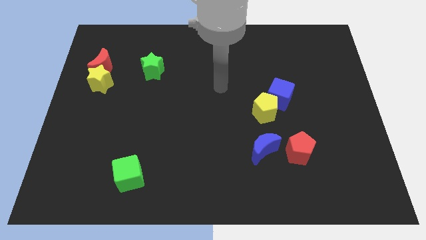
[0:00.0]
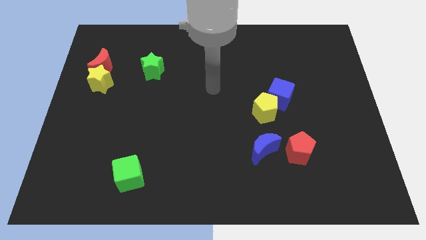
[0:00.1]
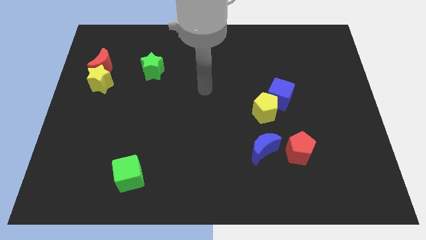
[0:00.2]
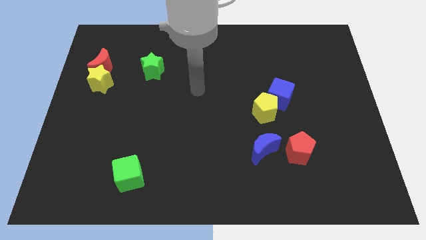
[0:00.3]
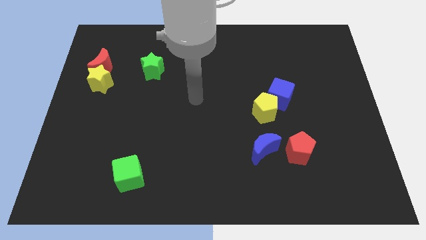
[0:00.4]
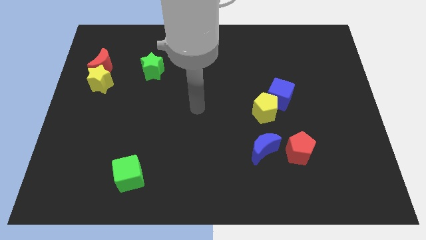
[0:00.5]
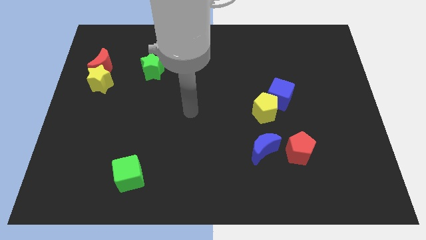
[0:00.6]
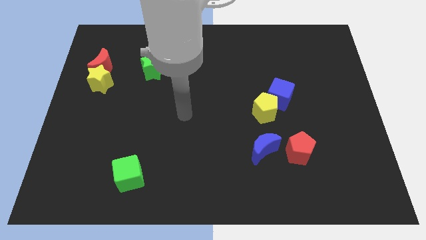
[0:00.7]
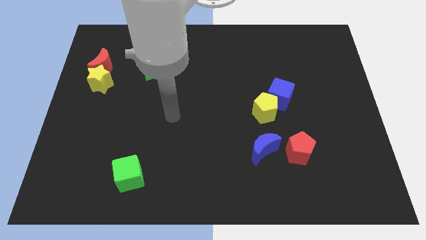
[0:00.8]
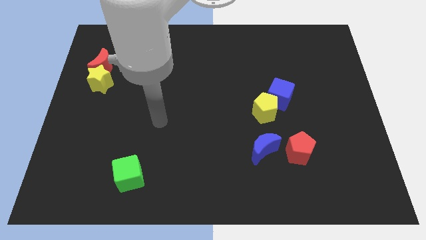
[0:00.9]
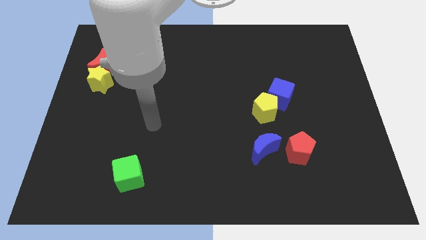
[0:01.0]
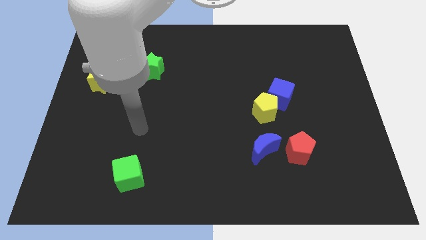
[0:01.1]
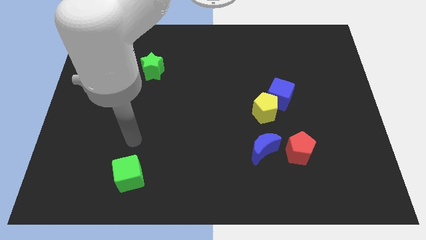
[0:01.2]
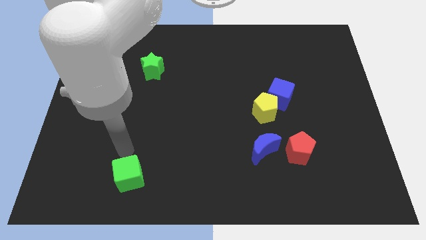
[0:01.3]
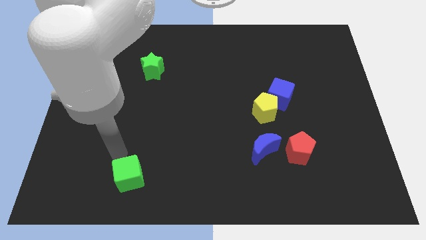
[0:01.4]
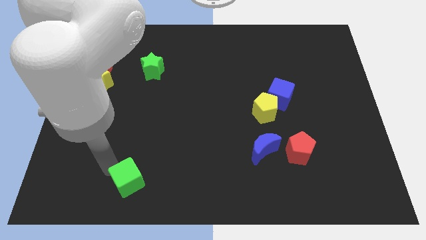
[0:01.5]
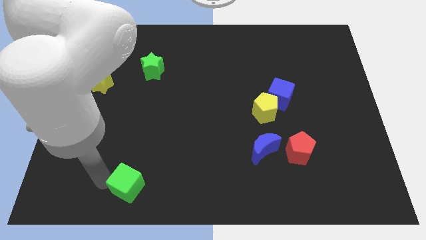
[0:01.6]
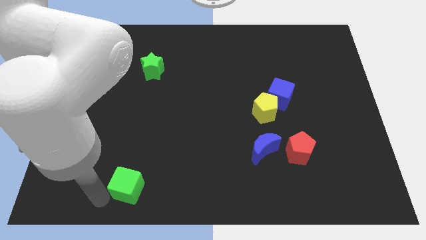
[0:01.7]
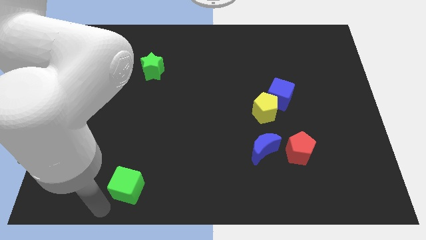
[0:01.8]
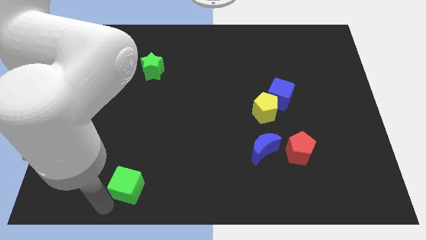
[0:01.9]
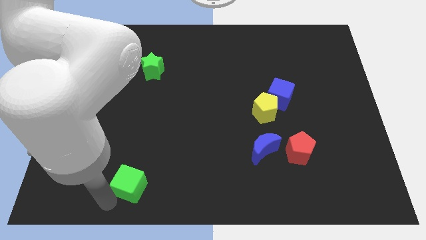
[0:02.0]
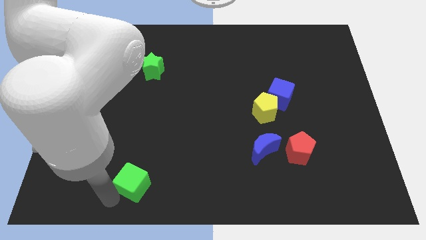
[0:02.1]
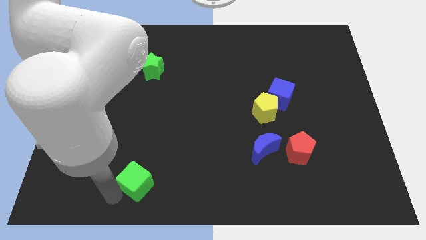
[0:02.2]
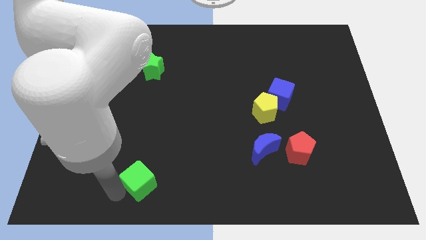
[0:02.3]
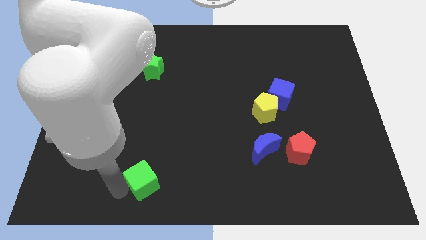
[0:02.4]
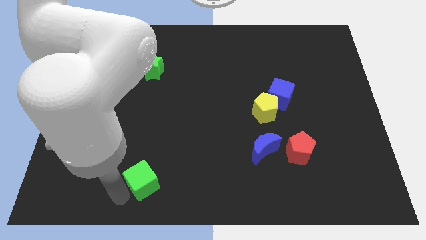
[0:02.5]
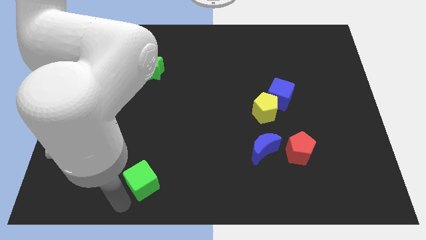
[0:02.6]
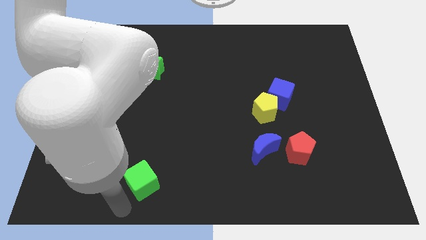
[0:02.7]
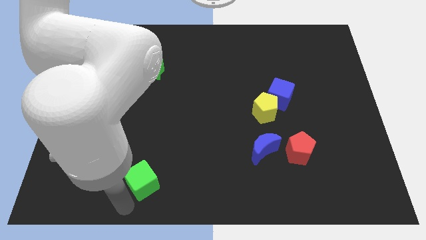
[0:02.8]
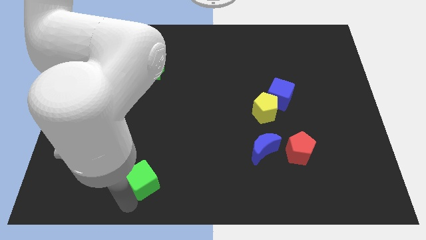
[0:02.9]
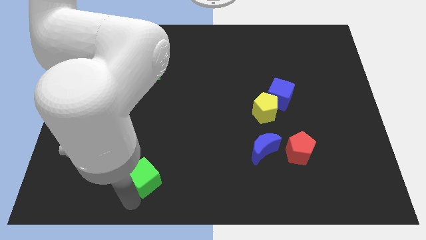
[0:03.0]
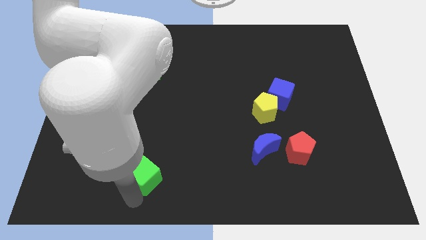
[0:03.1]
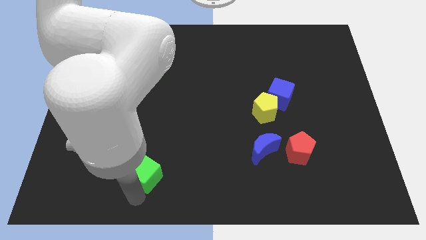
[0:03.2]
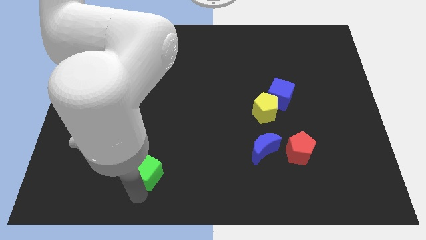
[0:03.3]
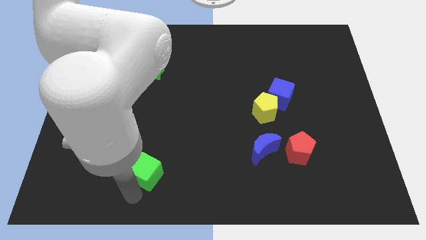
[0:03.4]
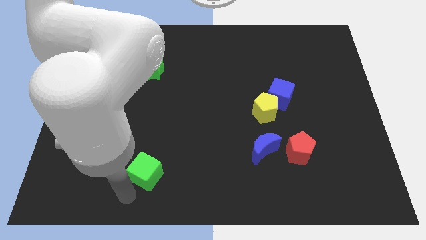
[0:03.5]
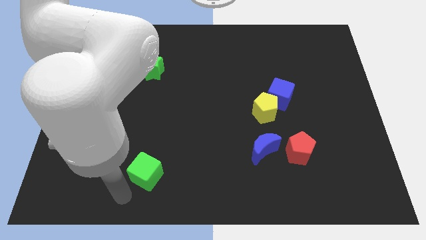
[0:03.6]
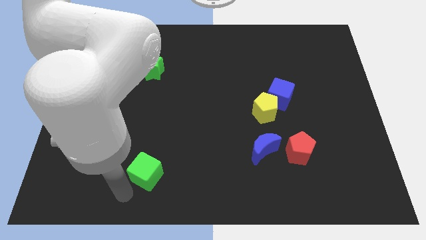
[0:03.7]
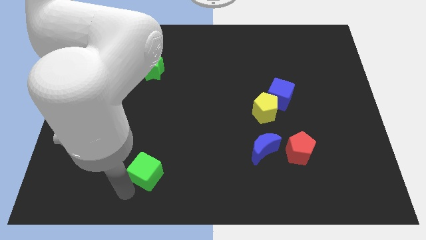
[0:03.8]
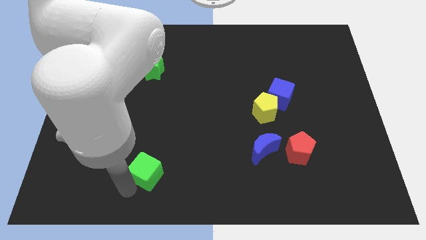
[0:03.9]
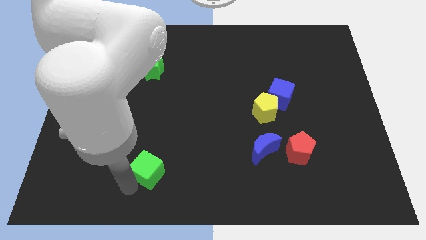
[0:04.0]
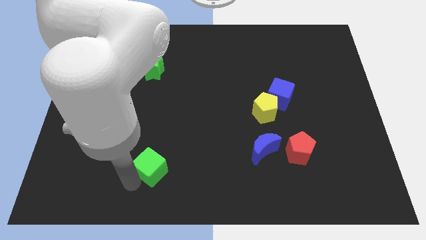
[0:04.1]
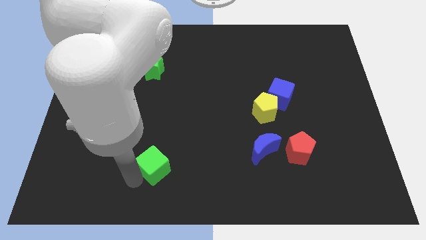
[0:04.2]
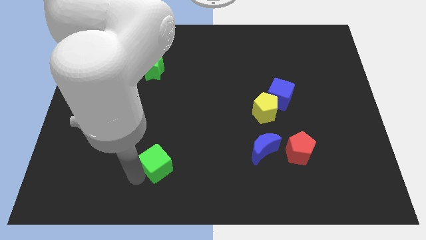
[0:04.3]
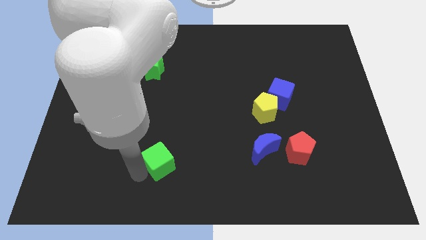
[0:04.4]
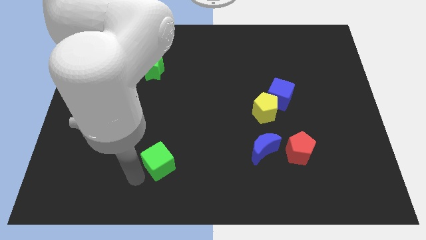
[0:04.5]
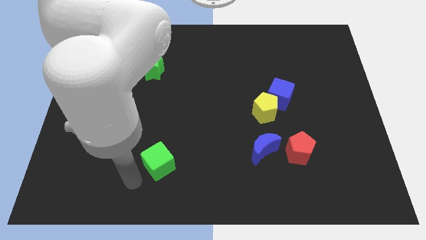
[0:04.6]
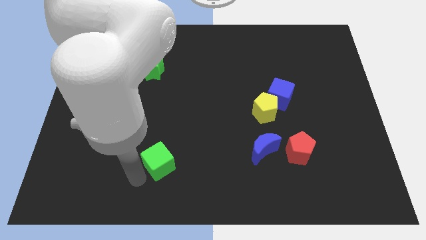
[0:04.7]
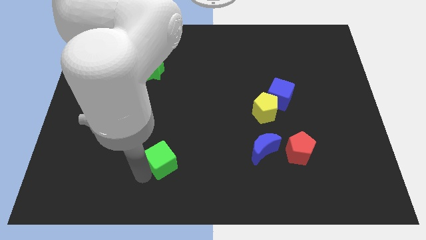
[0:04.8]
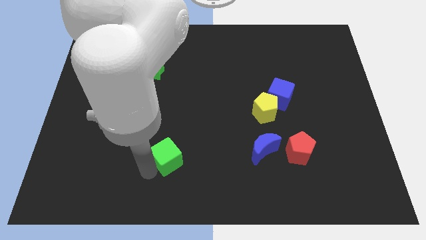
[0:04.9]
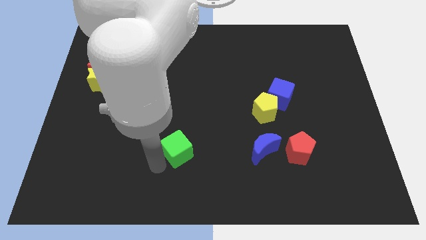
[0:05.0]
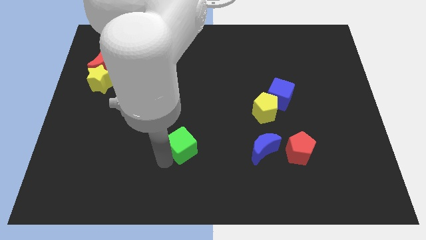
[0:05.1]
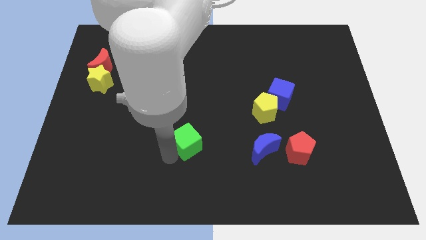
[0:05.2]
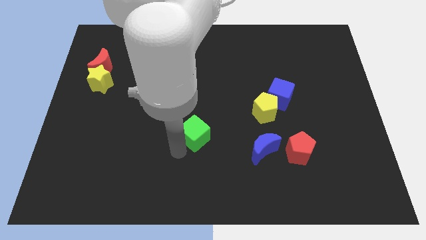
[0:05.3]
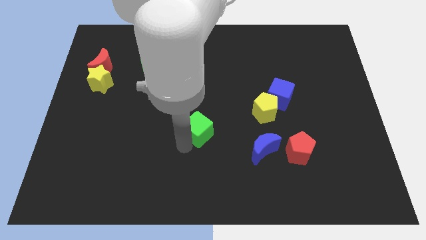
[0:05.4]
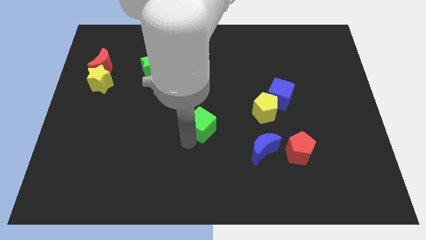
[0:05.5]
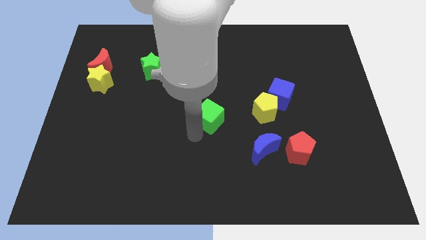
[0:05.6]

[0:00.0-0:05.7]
move the green cube upwards and then right

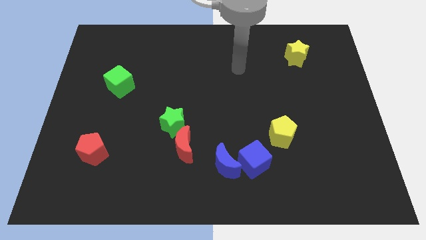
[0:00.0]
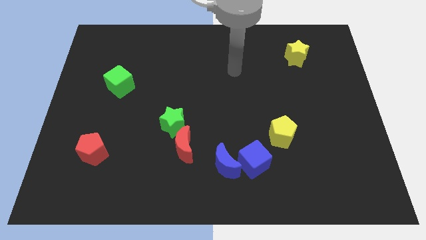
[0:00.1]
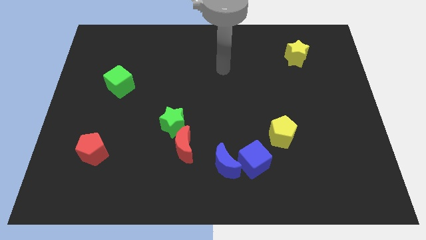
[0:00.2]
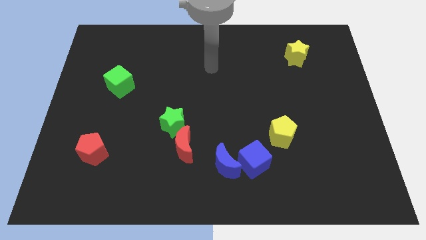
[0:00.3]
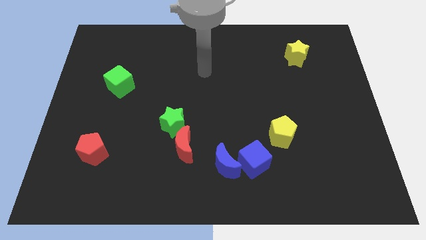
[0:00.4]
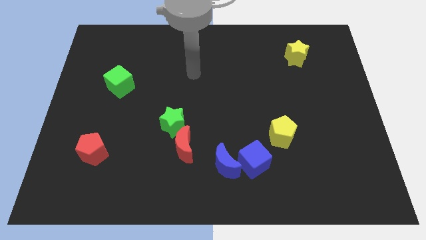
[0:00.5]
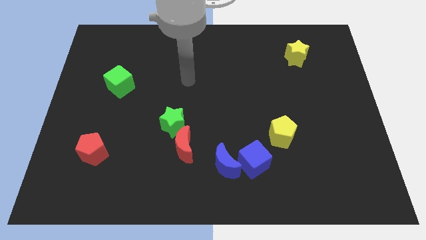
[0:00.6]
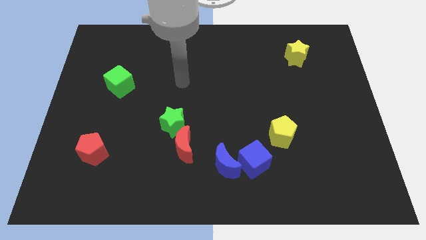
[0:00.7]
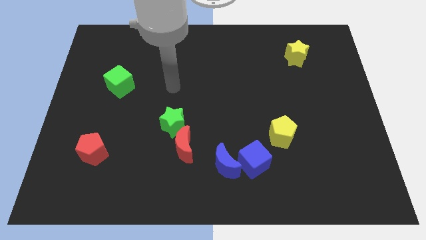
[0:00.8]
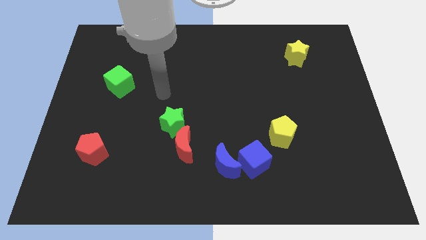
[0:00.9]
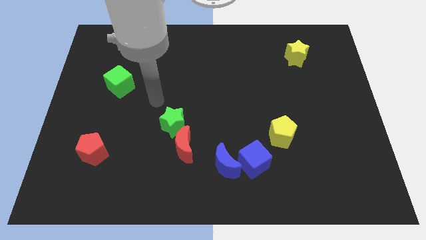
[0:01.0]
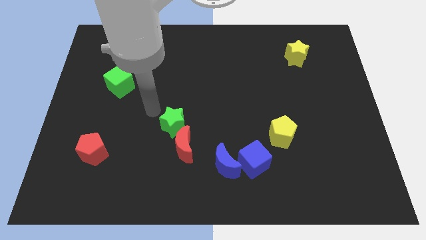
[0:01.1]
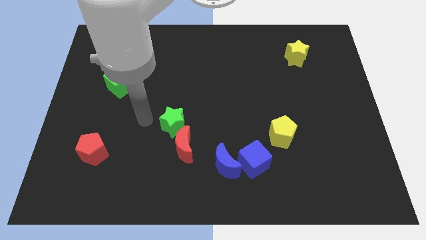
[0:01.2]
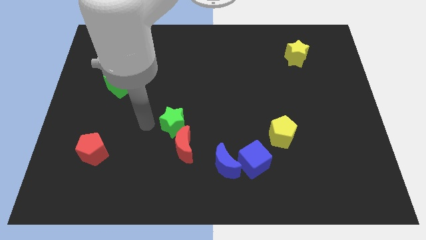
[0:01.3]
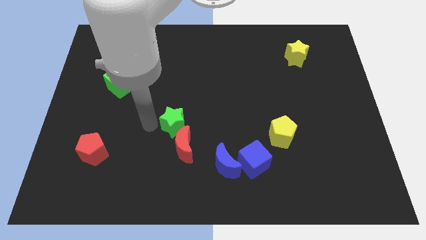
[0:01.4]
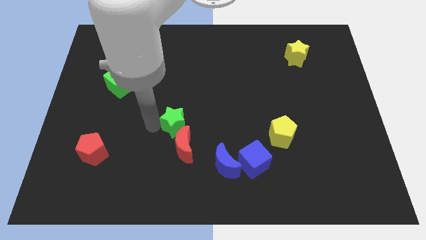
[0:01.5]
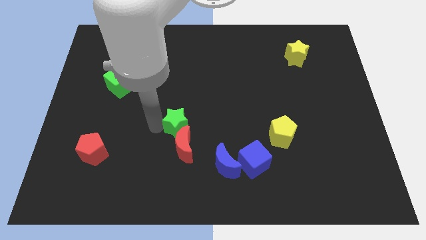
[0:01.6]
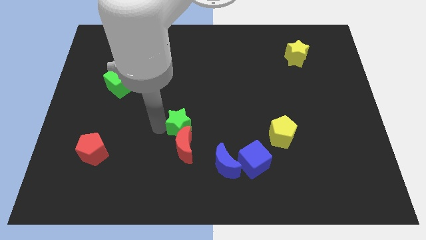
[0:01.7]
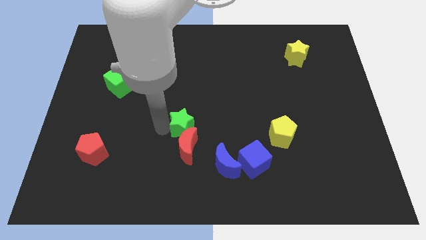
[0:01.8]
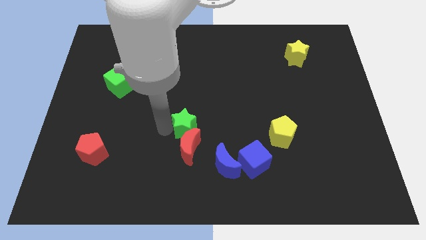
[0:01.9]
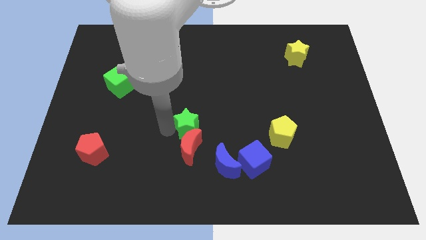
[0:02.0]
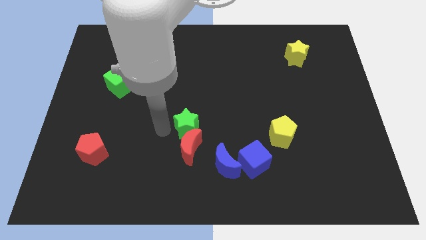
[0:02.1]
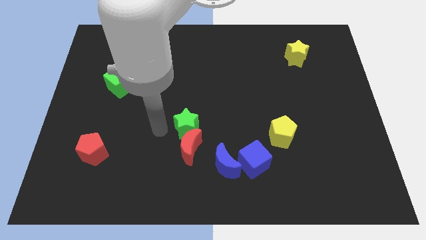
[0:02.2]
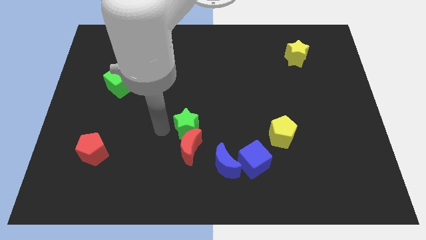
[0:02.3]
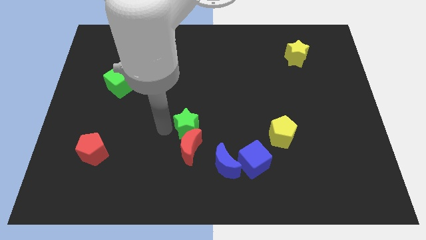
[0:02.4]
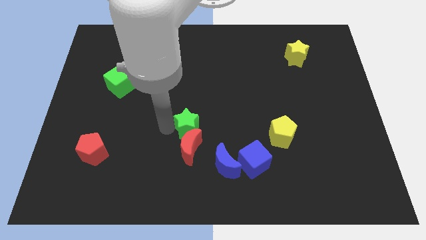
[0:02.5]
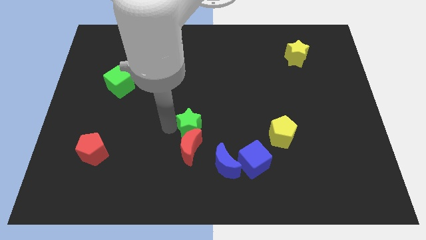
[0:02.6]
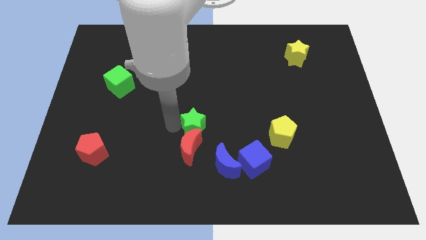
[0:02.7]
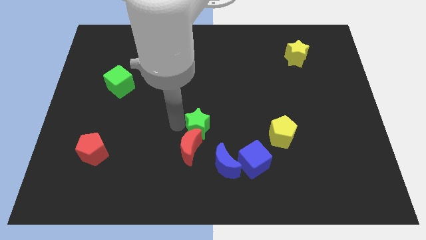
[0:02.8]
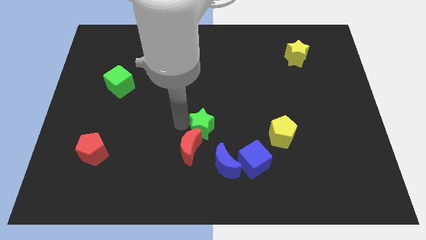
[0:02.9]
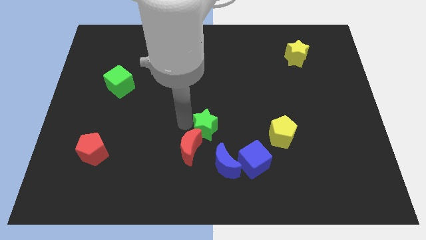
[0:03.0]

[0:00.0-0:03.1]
slide the green star right a bit
